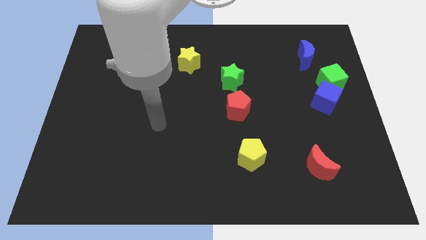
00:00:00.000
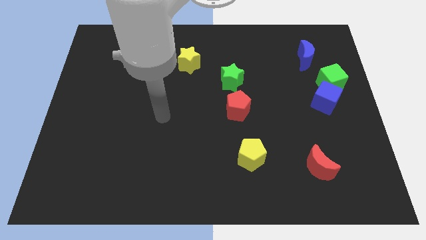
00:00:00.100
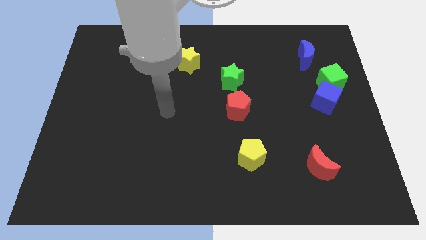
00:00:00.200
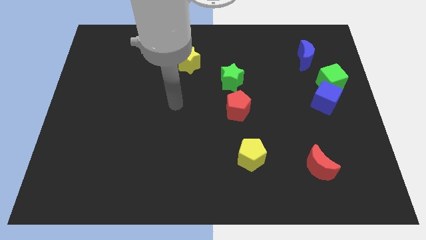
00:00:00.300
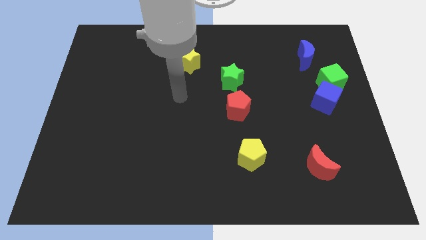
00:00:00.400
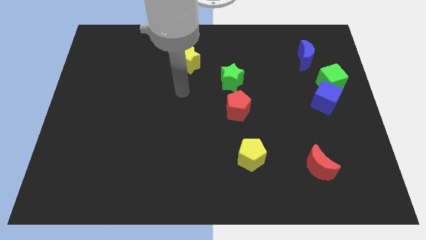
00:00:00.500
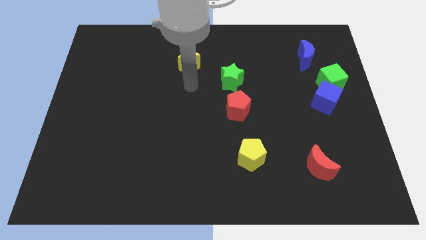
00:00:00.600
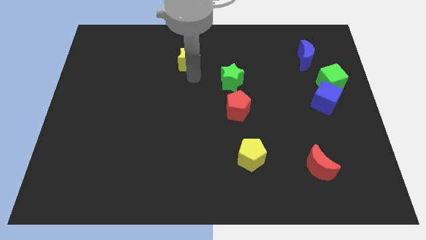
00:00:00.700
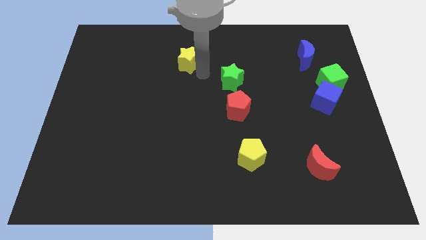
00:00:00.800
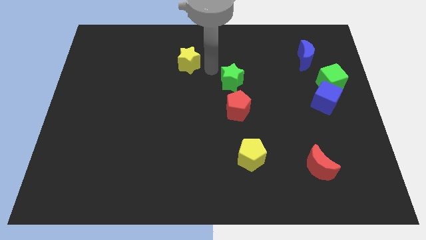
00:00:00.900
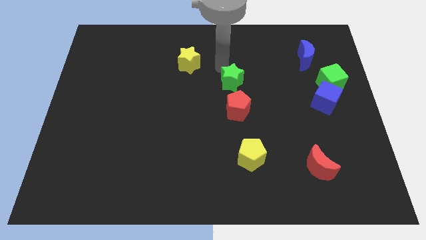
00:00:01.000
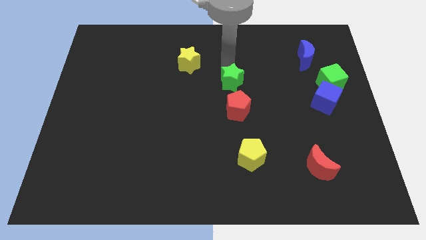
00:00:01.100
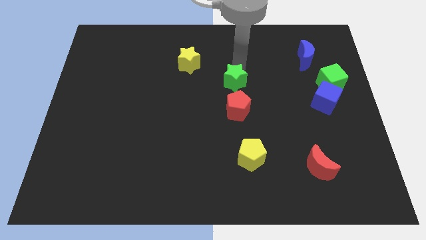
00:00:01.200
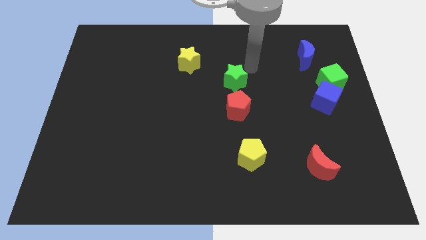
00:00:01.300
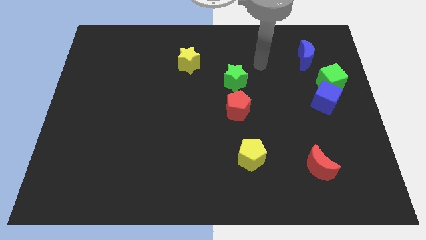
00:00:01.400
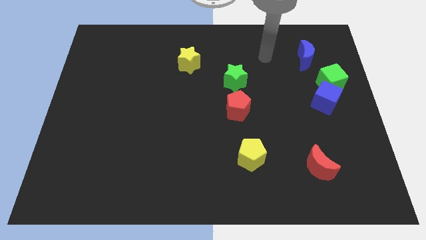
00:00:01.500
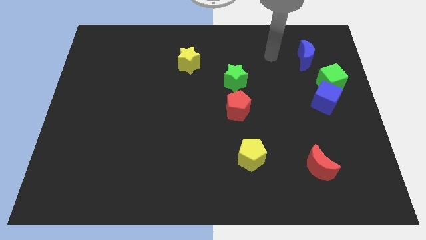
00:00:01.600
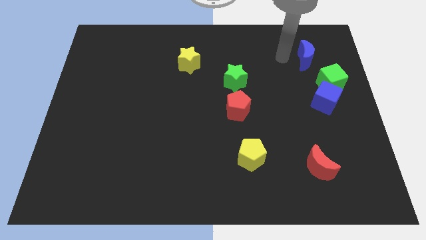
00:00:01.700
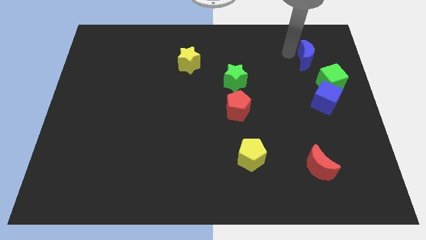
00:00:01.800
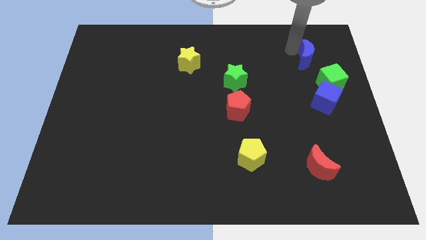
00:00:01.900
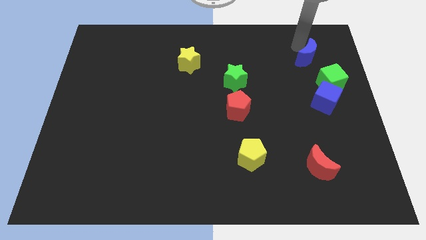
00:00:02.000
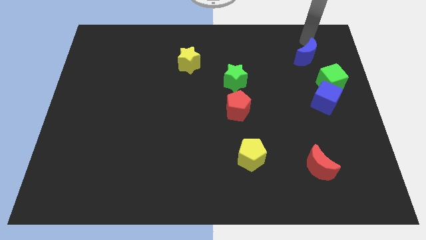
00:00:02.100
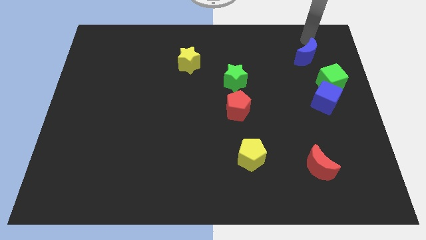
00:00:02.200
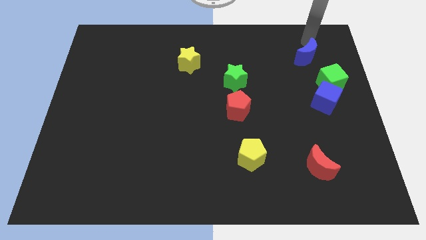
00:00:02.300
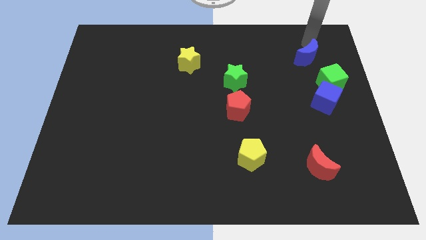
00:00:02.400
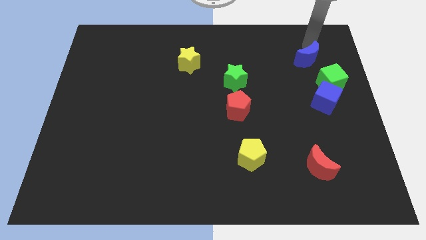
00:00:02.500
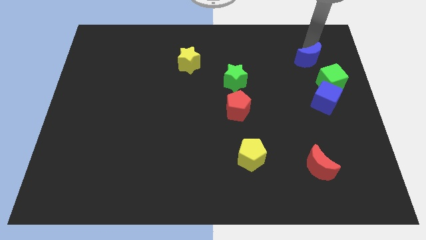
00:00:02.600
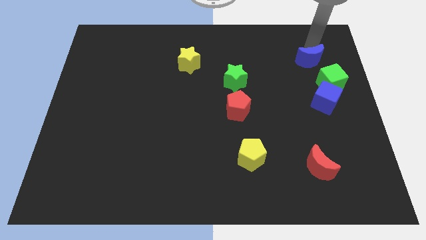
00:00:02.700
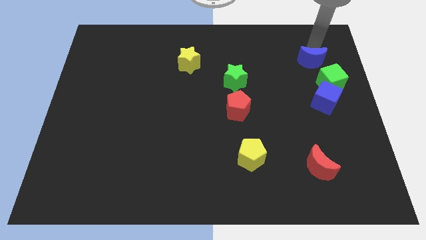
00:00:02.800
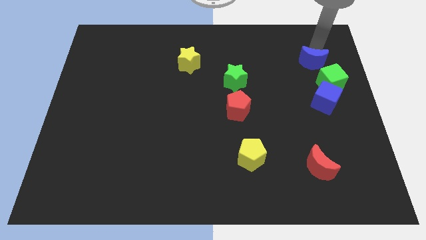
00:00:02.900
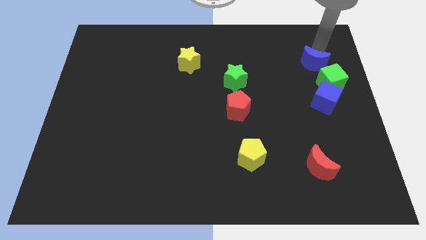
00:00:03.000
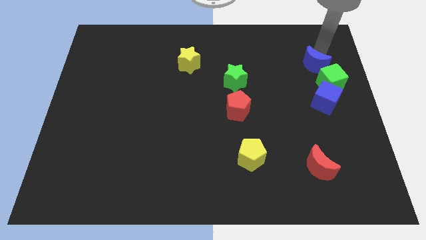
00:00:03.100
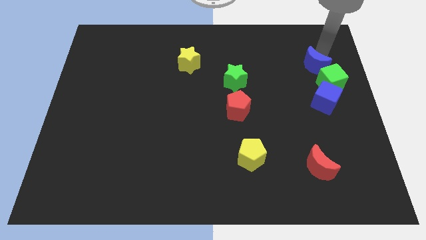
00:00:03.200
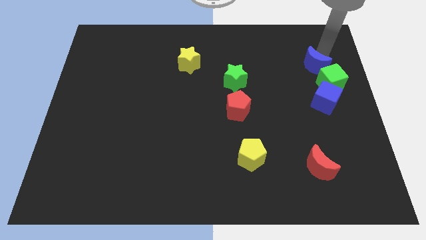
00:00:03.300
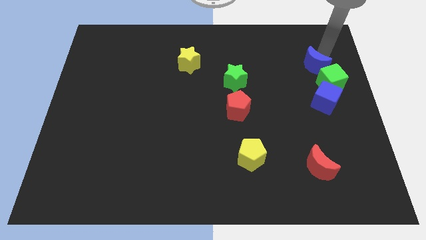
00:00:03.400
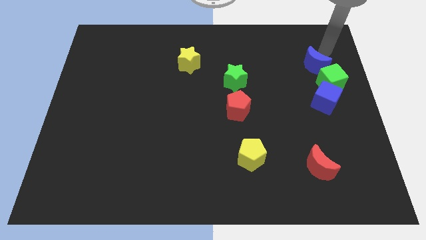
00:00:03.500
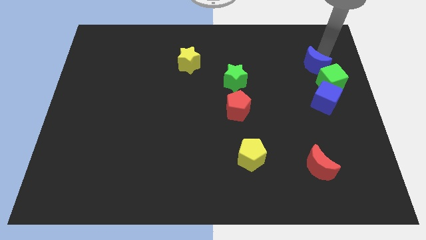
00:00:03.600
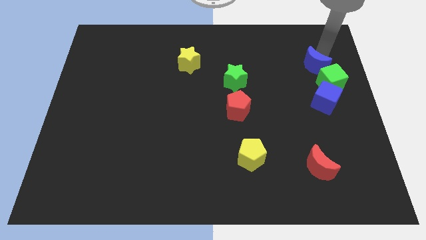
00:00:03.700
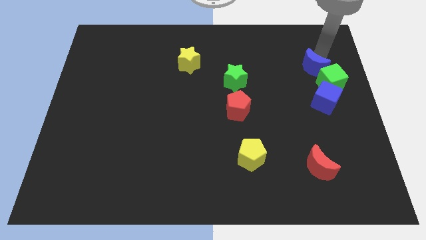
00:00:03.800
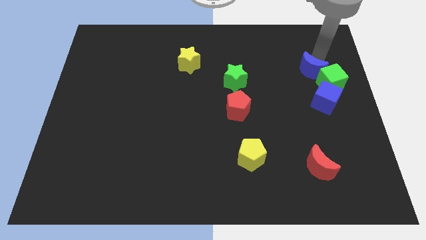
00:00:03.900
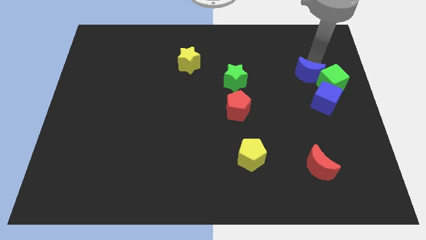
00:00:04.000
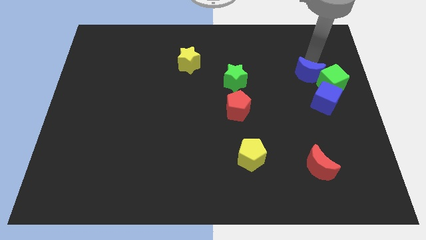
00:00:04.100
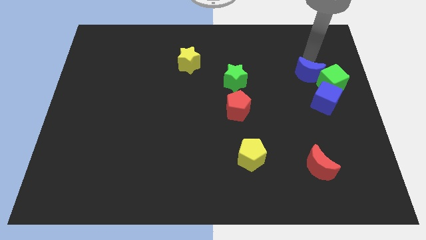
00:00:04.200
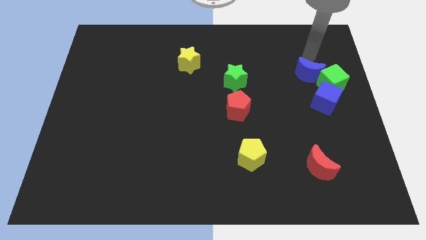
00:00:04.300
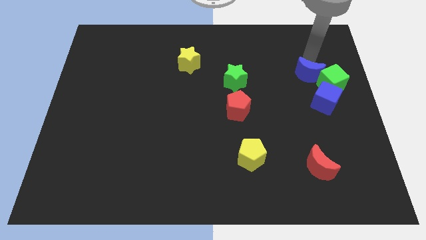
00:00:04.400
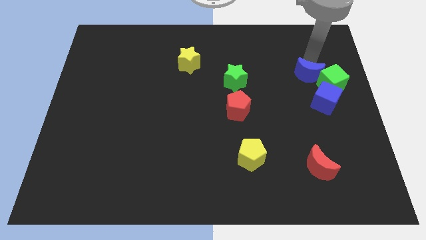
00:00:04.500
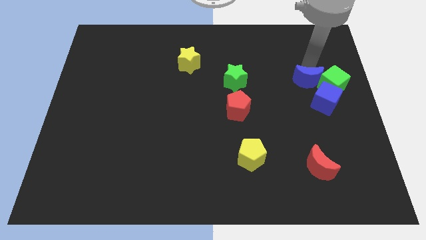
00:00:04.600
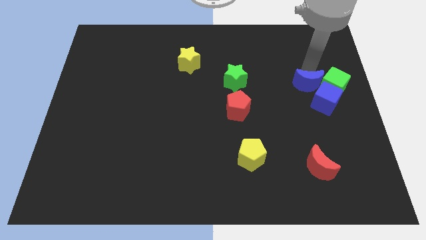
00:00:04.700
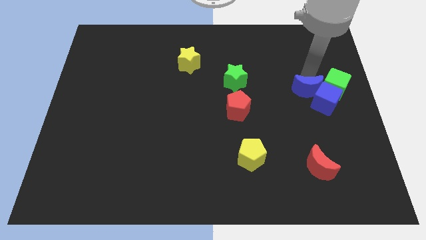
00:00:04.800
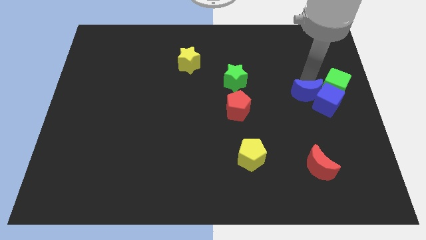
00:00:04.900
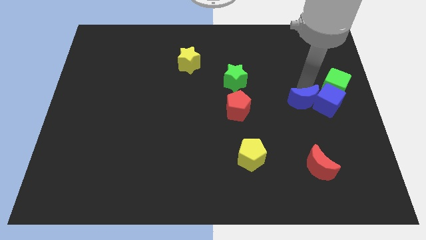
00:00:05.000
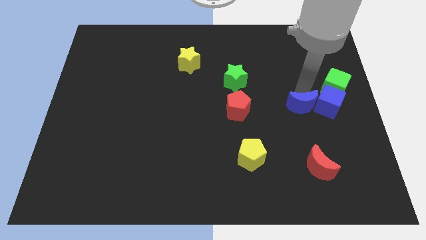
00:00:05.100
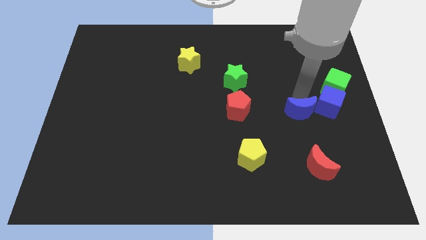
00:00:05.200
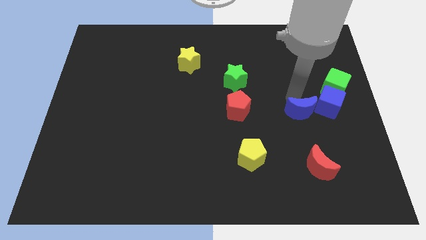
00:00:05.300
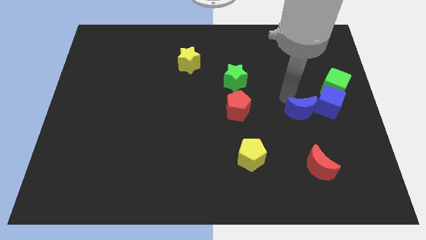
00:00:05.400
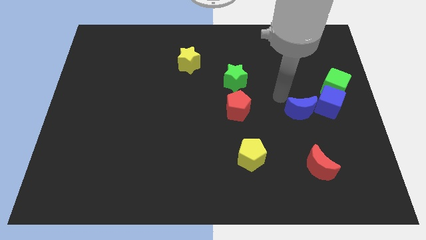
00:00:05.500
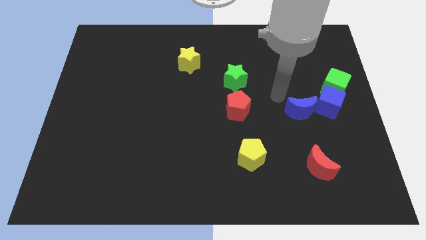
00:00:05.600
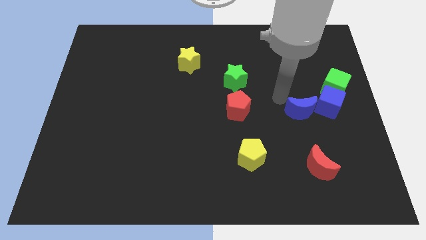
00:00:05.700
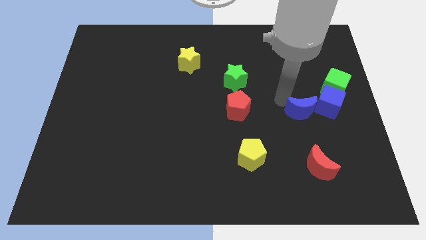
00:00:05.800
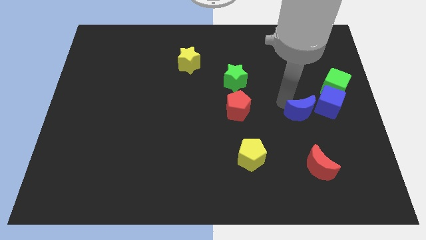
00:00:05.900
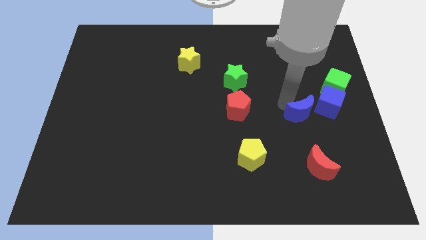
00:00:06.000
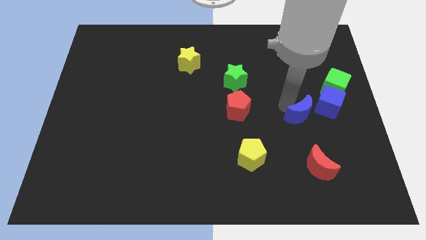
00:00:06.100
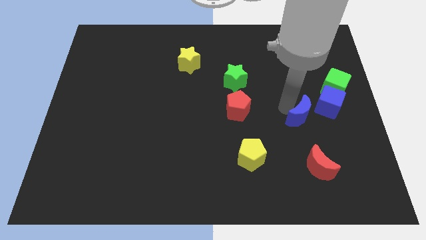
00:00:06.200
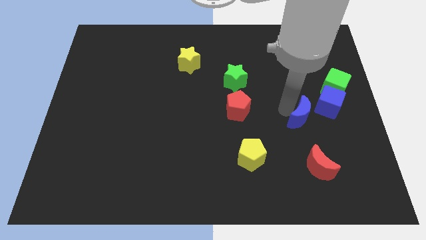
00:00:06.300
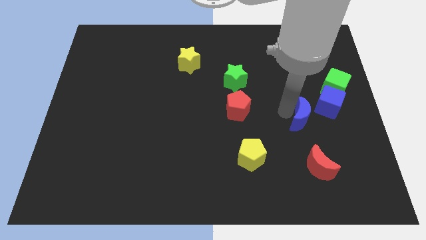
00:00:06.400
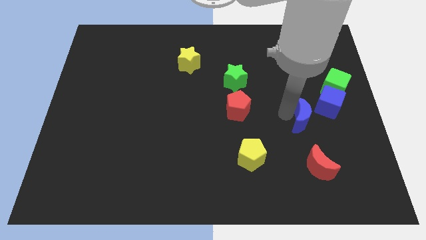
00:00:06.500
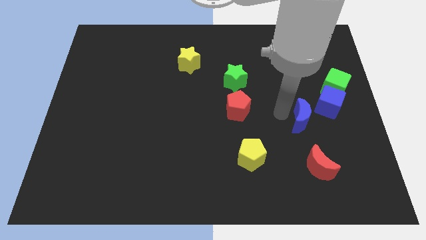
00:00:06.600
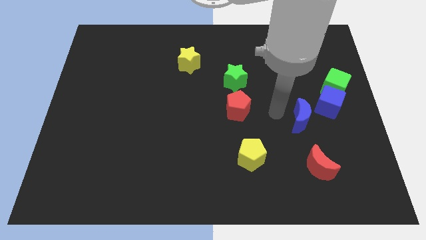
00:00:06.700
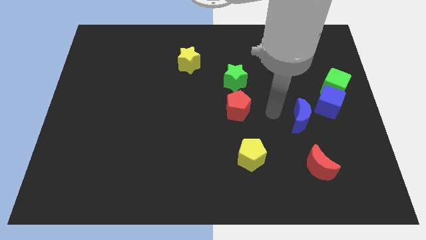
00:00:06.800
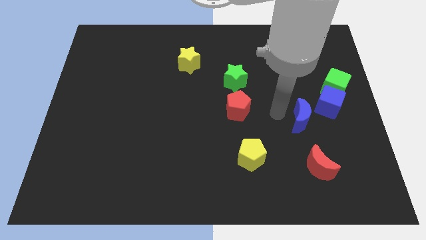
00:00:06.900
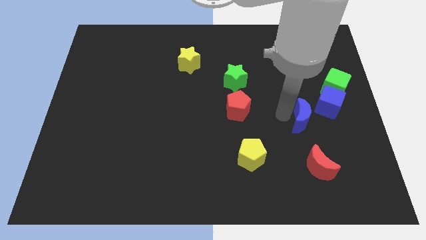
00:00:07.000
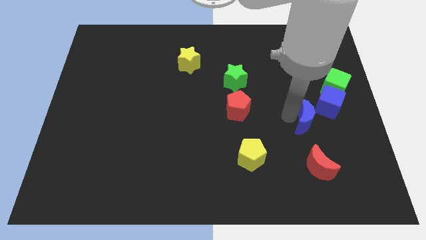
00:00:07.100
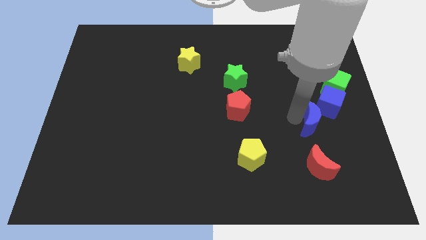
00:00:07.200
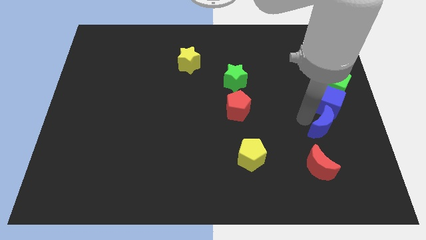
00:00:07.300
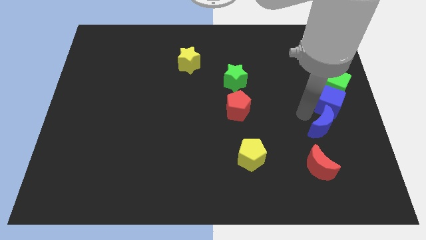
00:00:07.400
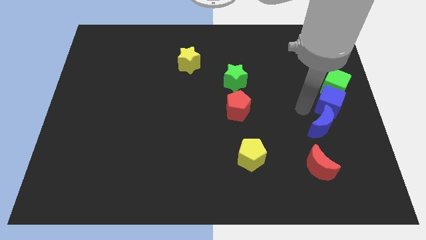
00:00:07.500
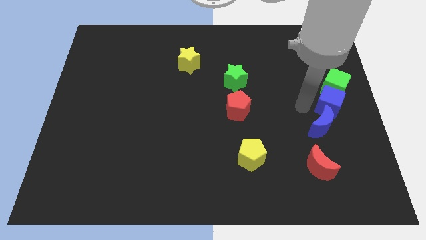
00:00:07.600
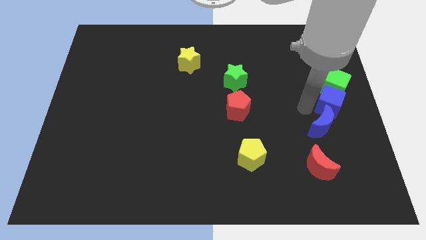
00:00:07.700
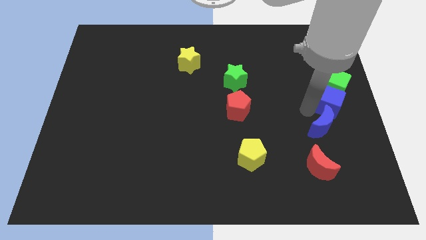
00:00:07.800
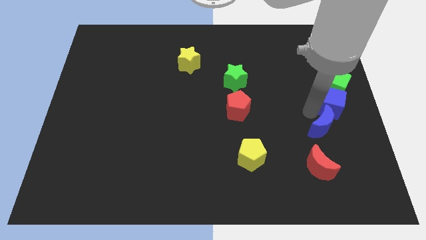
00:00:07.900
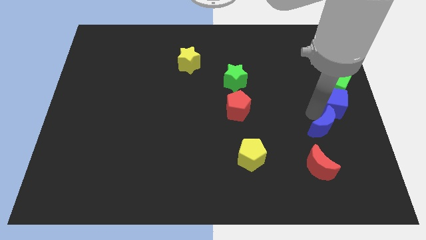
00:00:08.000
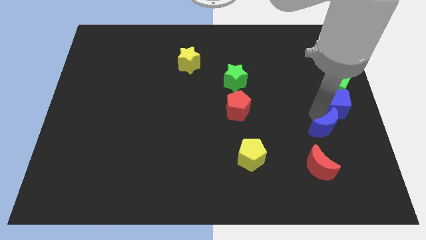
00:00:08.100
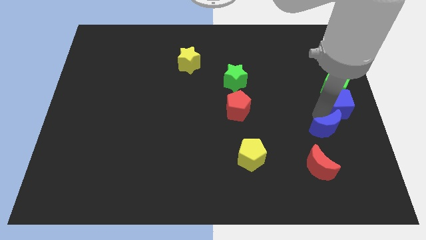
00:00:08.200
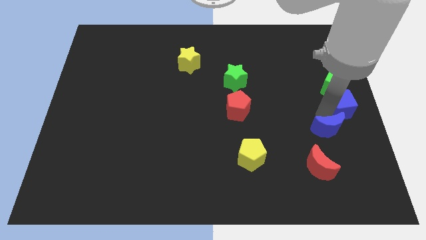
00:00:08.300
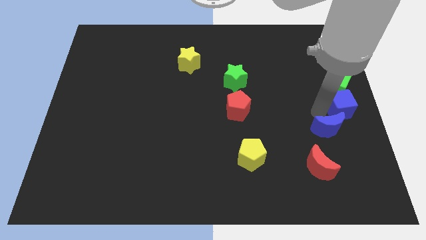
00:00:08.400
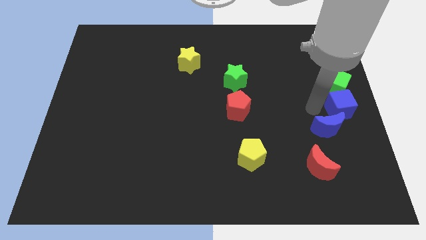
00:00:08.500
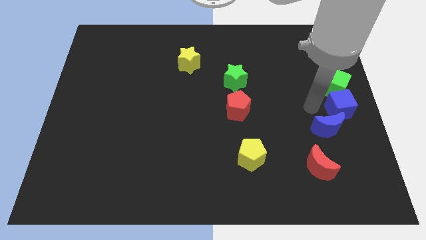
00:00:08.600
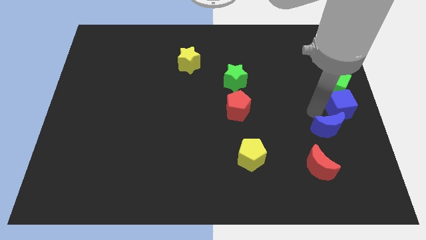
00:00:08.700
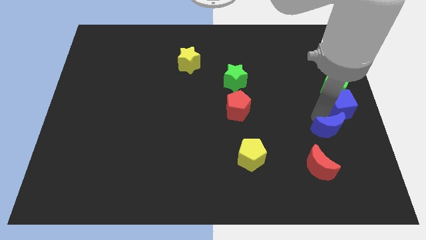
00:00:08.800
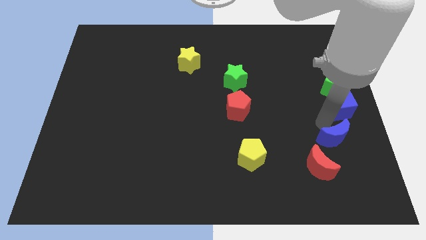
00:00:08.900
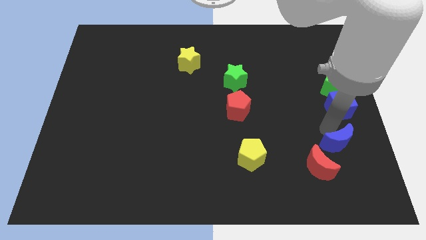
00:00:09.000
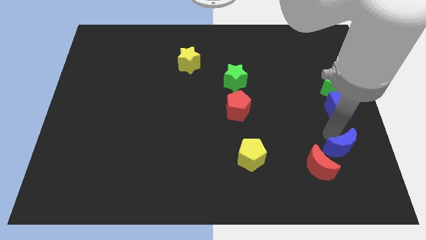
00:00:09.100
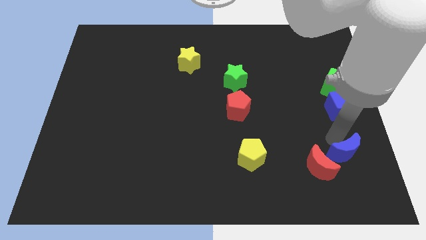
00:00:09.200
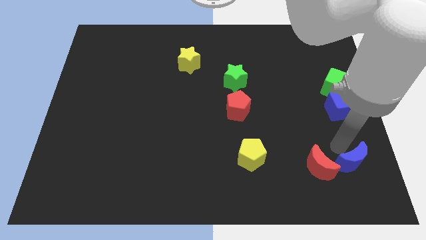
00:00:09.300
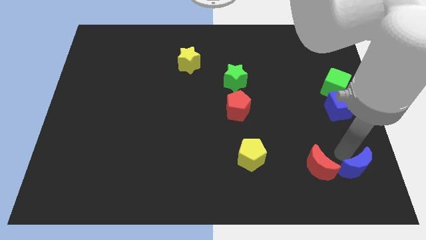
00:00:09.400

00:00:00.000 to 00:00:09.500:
move the blue moon to the lower right corner
